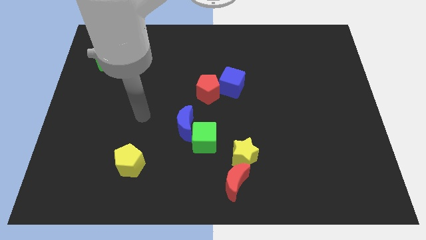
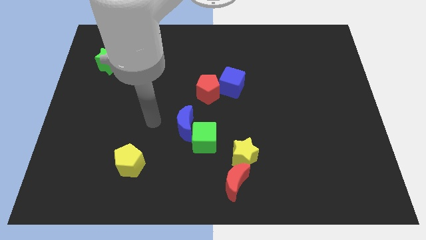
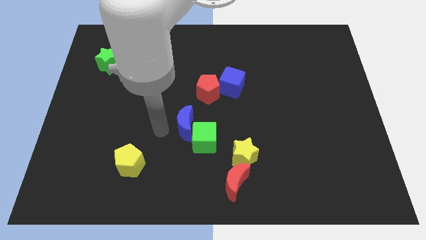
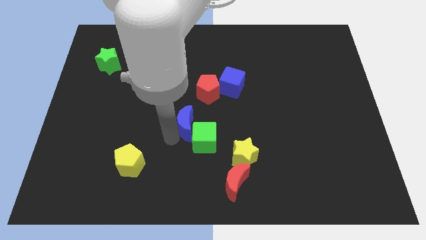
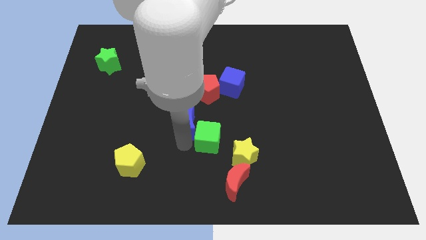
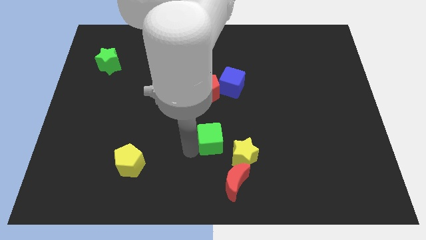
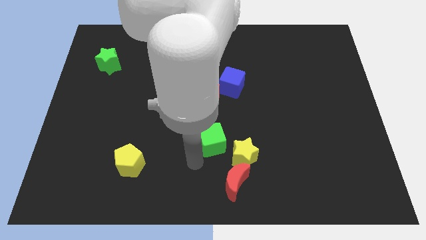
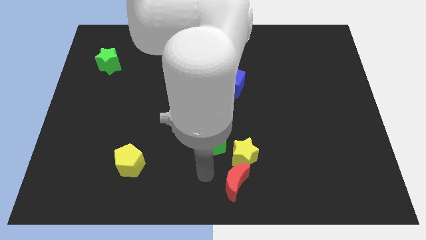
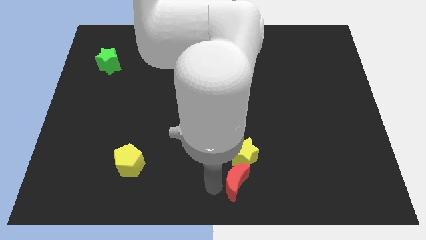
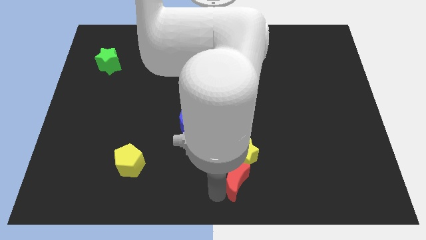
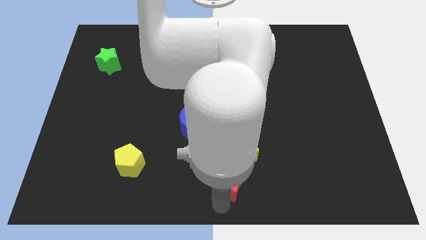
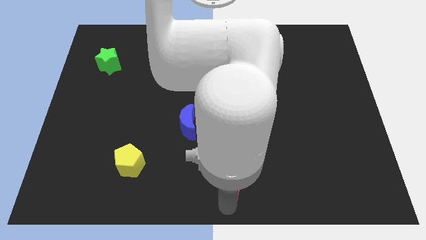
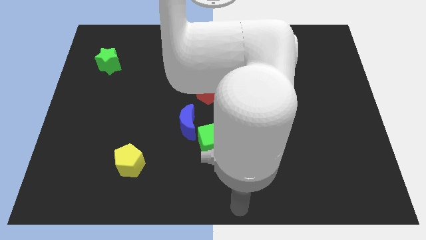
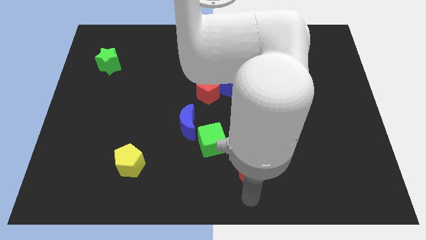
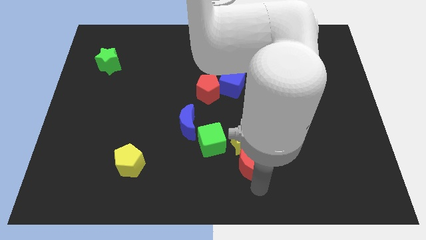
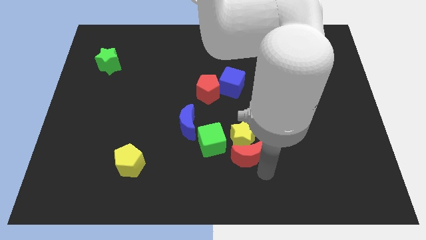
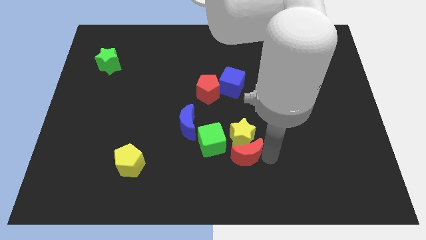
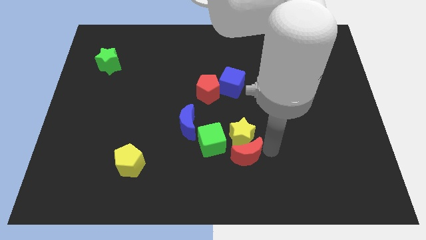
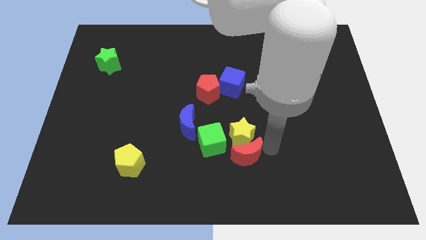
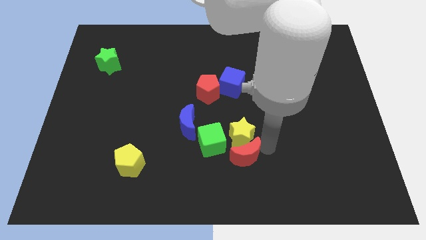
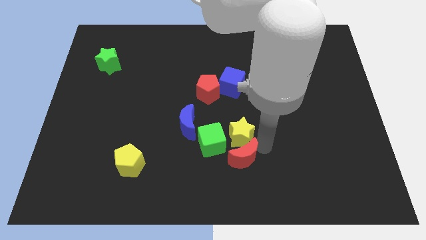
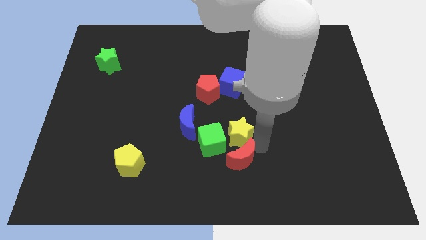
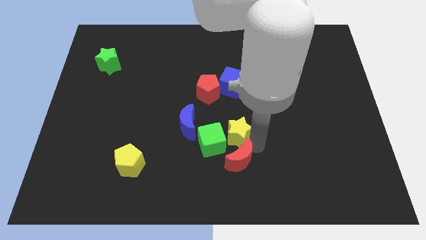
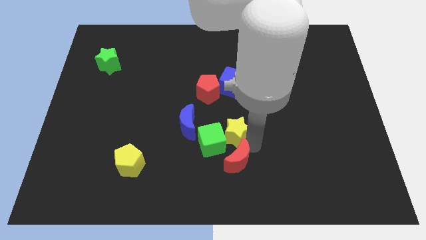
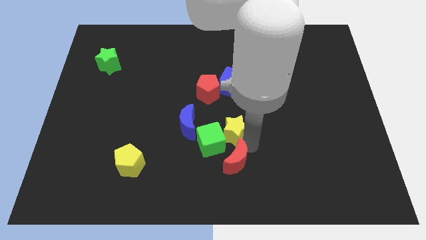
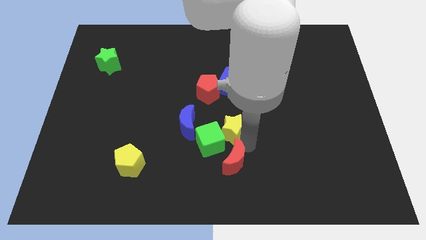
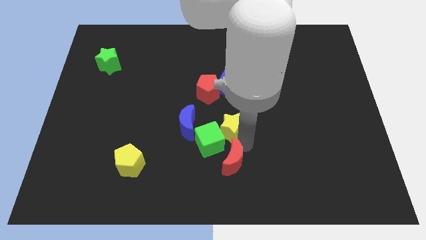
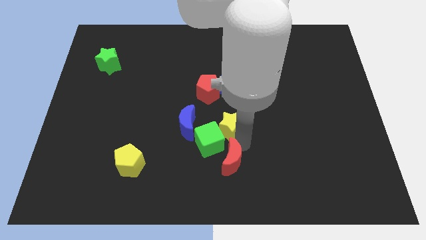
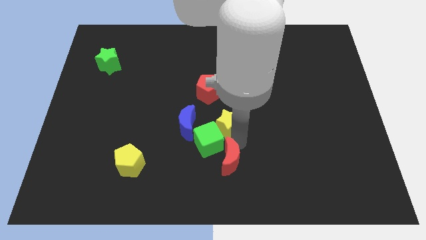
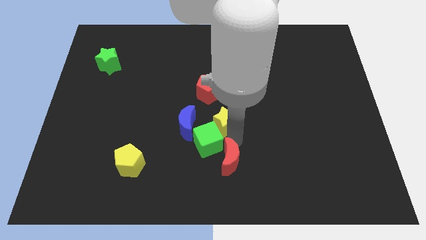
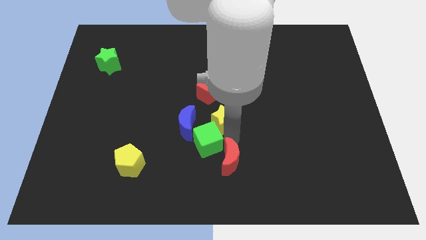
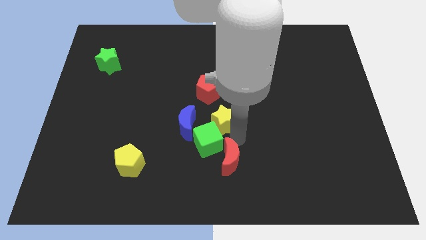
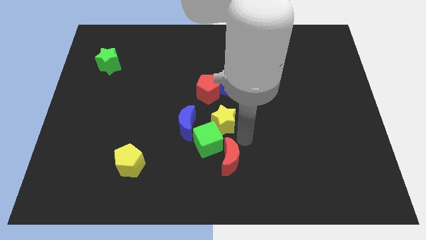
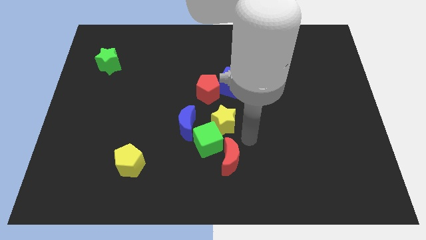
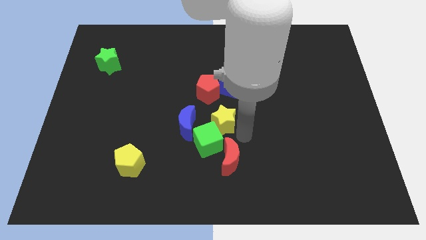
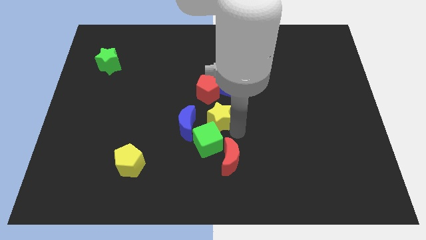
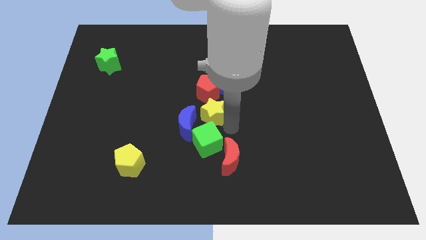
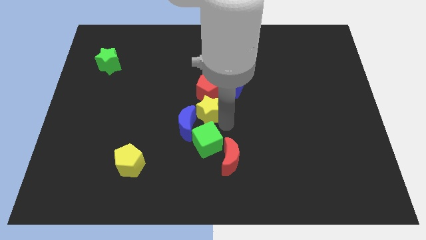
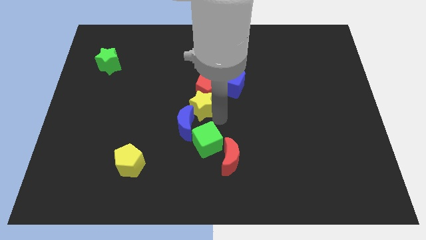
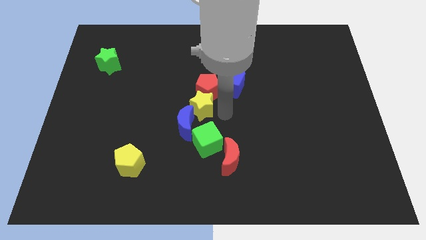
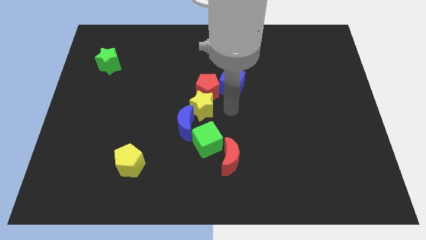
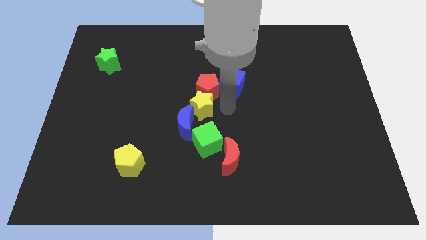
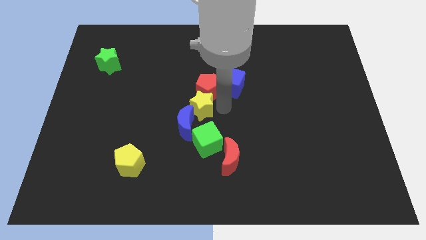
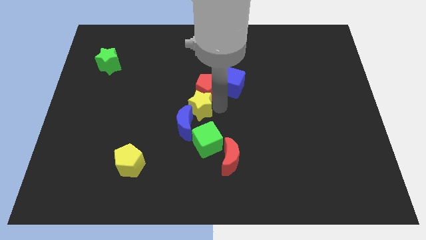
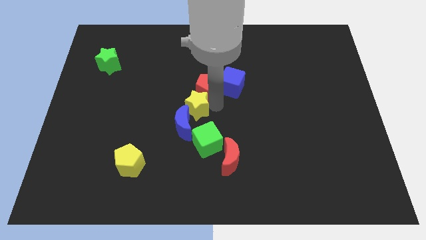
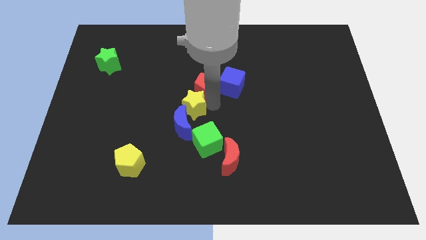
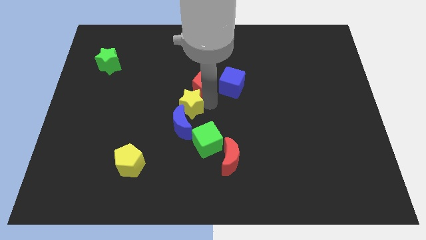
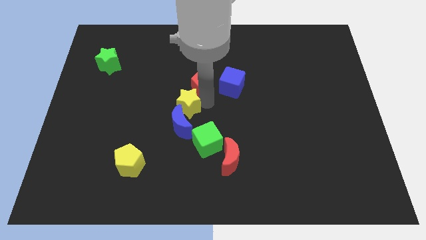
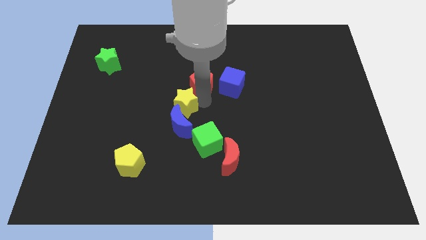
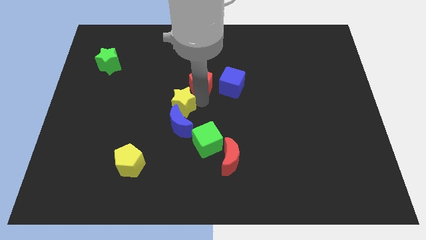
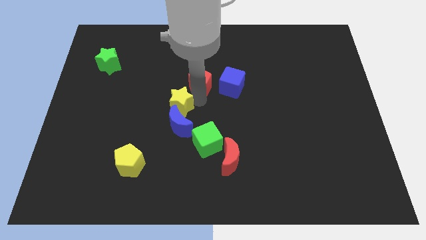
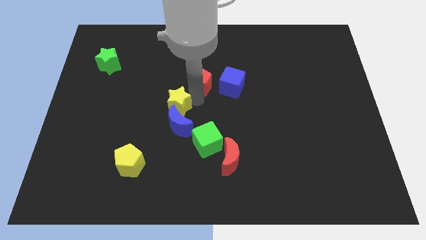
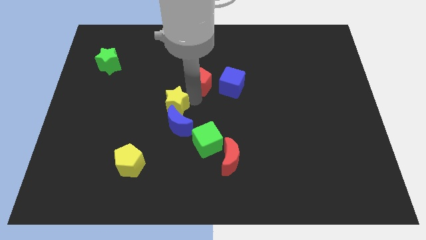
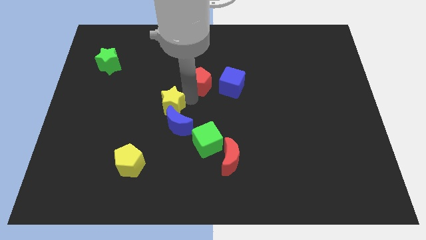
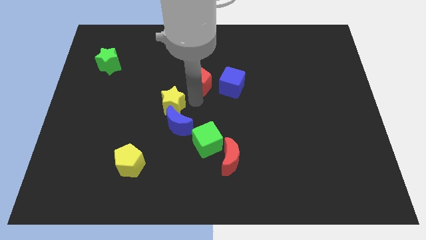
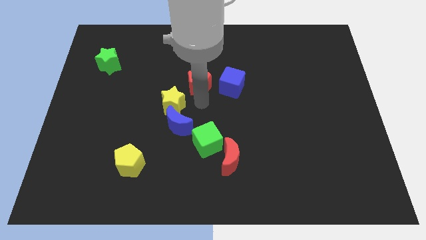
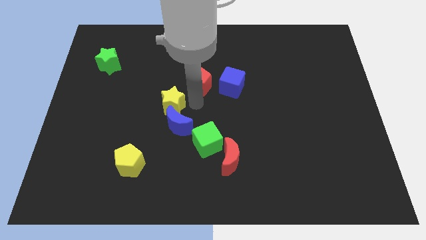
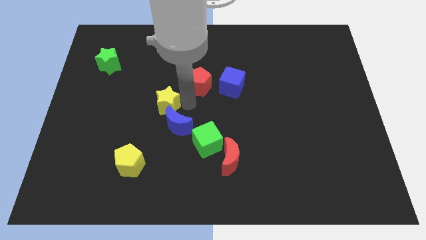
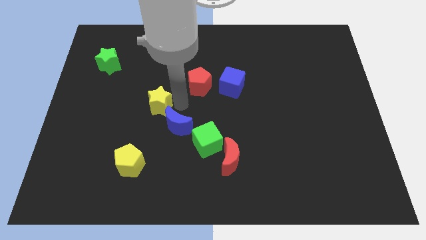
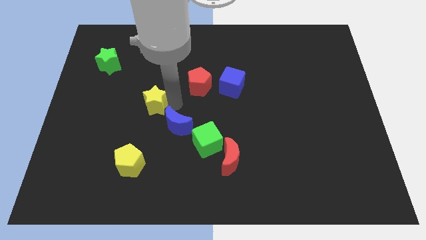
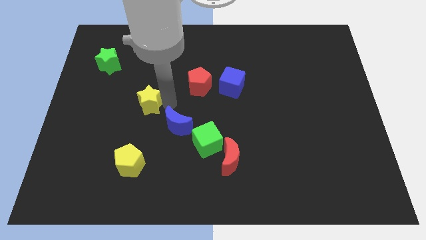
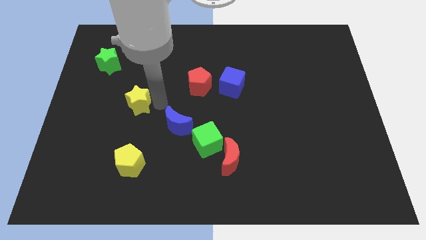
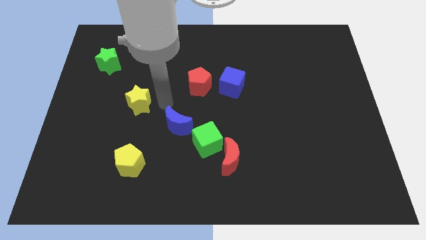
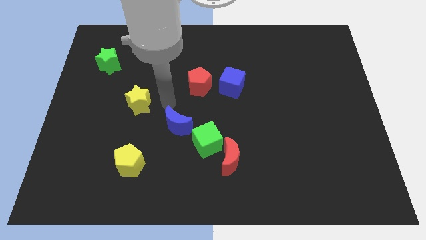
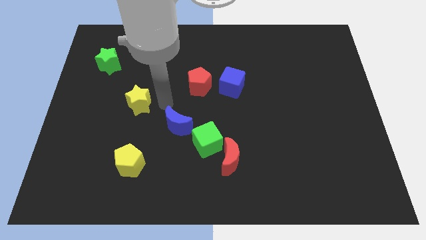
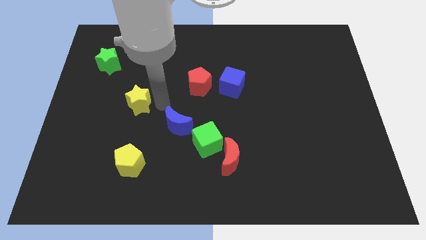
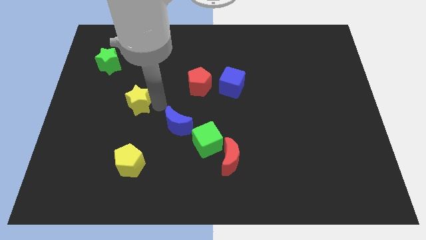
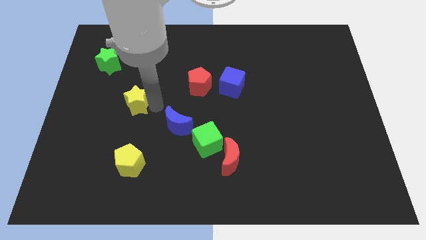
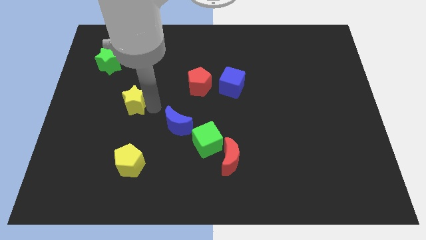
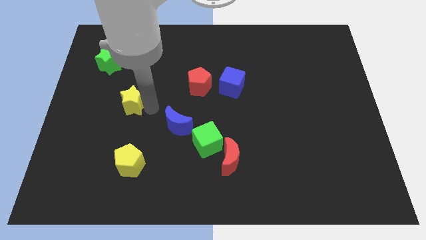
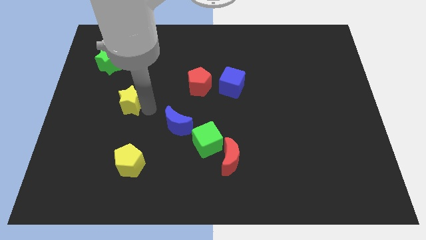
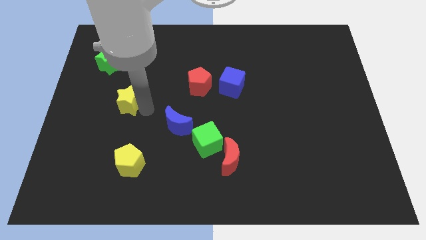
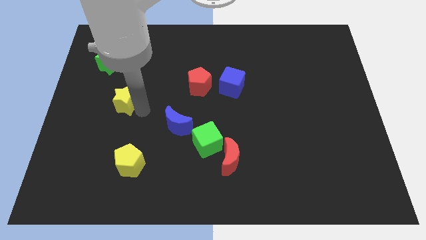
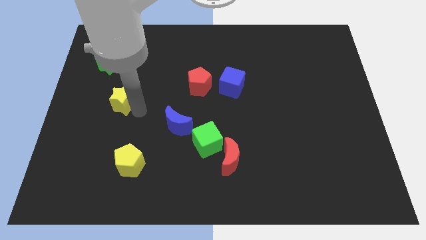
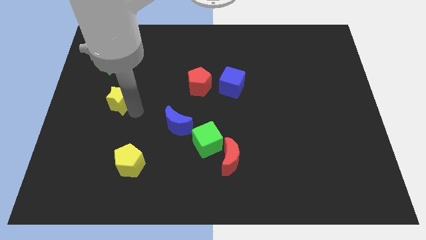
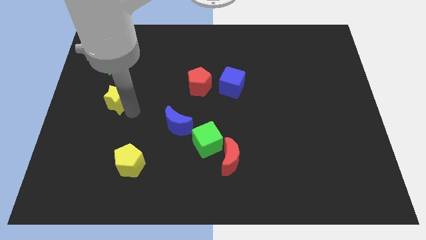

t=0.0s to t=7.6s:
push the yellow star to the bottom of the green star

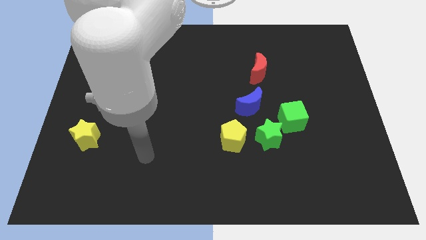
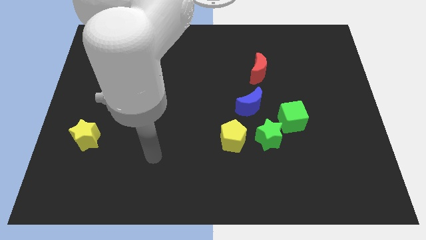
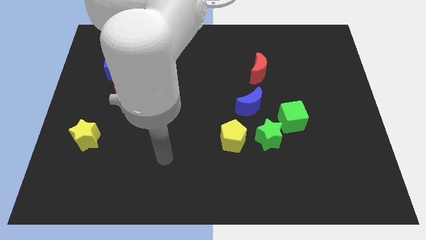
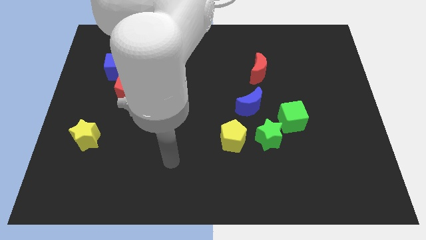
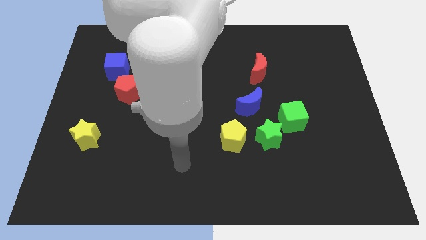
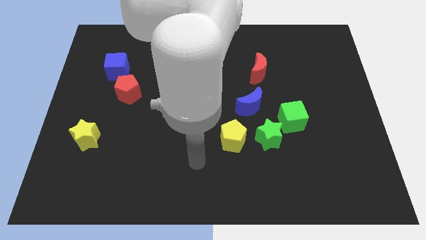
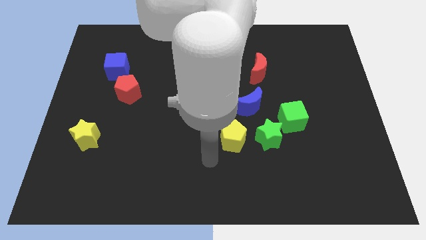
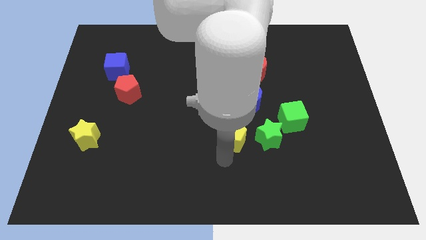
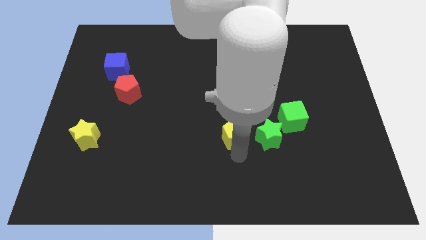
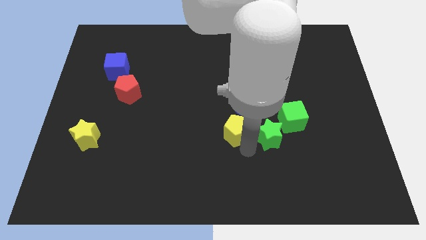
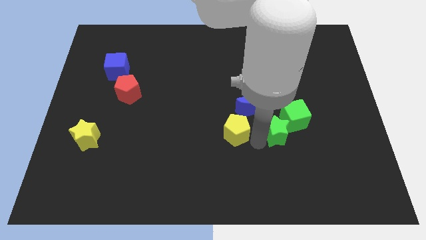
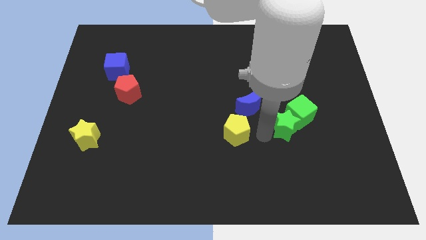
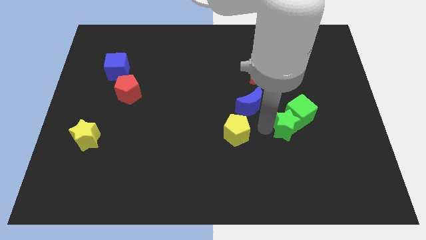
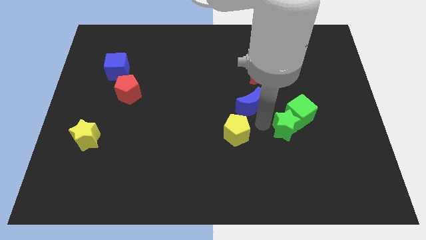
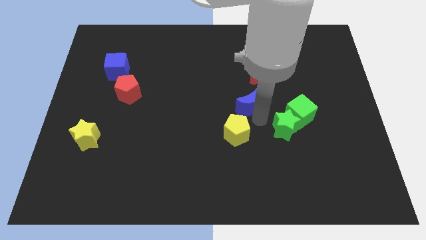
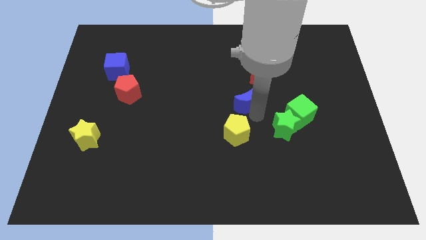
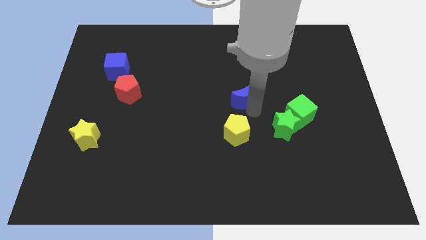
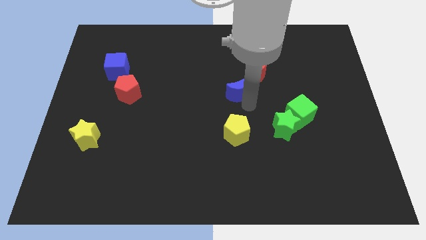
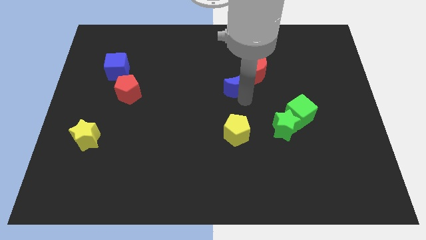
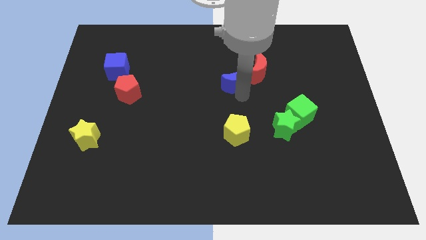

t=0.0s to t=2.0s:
push the blue moon to the left side of the red moon
